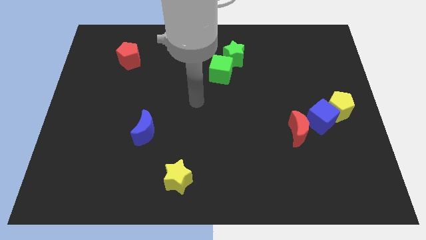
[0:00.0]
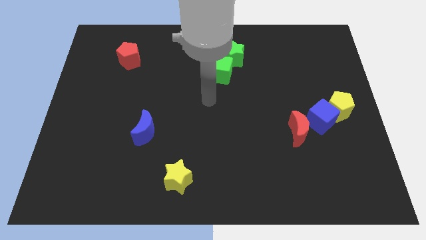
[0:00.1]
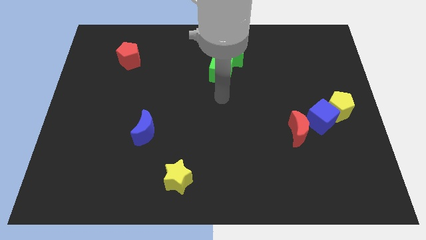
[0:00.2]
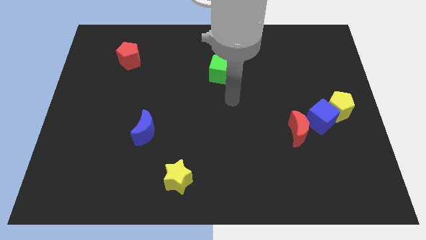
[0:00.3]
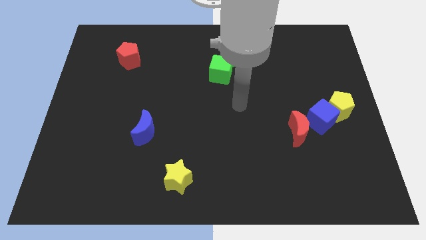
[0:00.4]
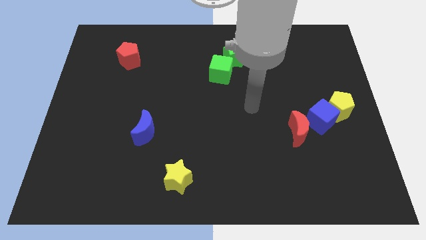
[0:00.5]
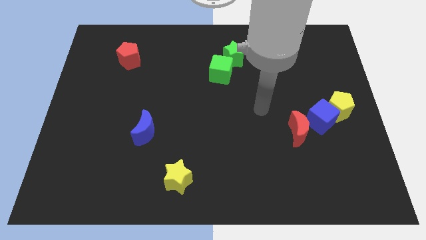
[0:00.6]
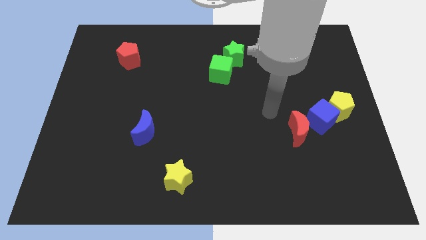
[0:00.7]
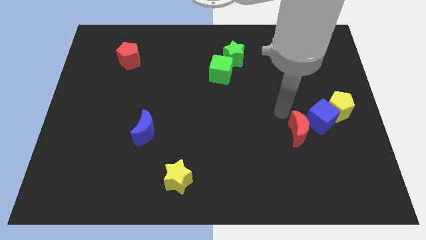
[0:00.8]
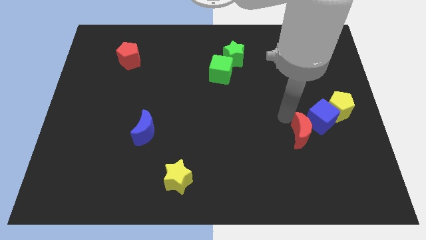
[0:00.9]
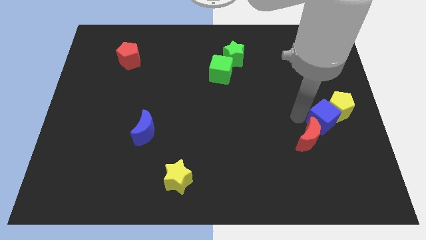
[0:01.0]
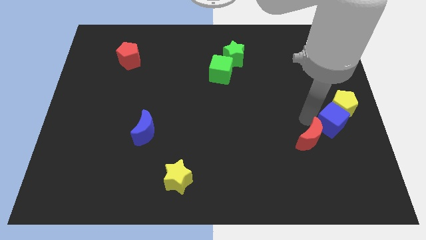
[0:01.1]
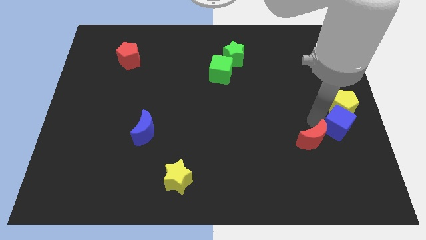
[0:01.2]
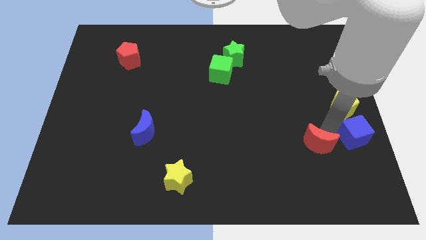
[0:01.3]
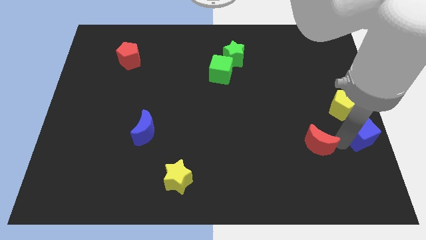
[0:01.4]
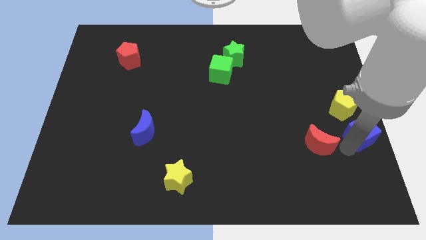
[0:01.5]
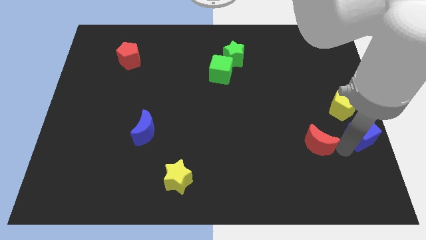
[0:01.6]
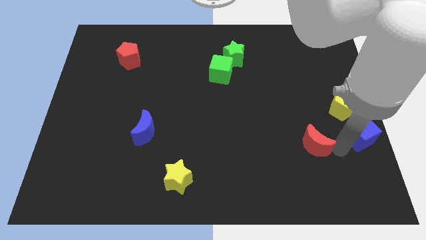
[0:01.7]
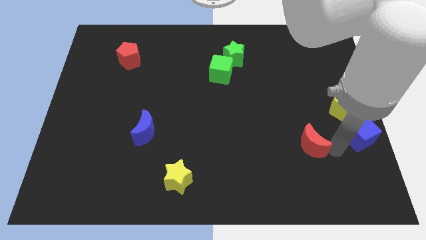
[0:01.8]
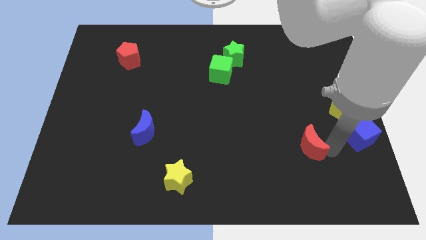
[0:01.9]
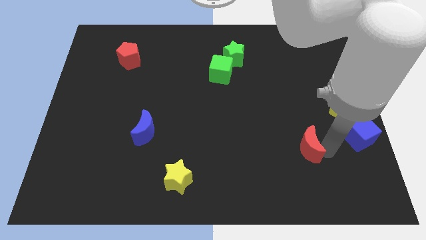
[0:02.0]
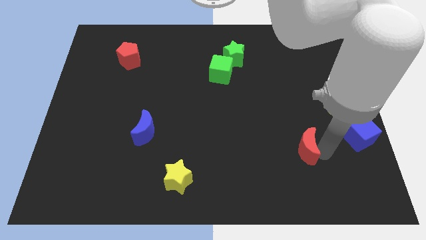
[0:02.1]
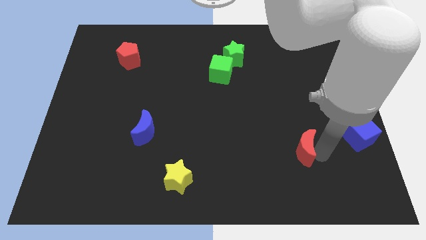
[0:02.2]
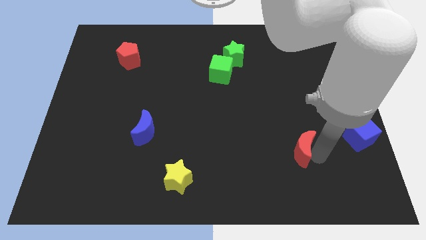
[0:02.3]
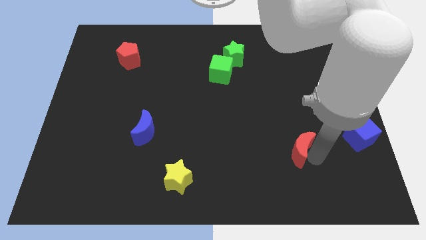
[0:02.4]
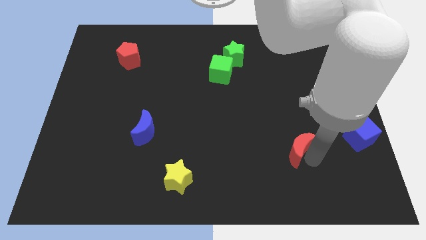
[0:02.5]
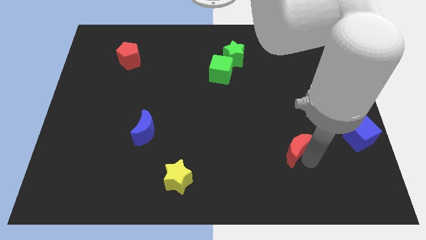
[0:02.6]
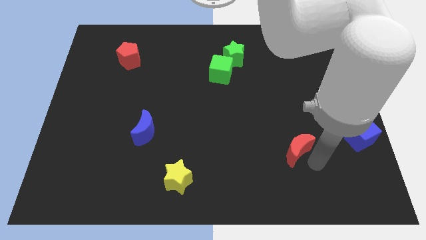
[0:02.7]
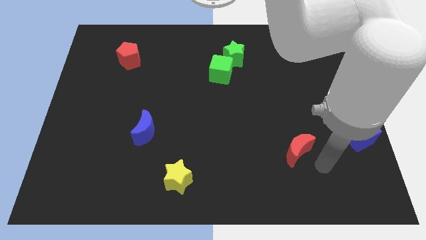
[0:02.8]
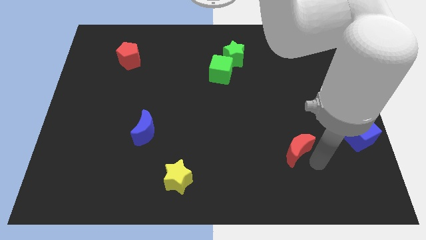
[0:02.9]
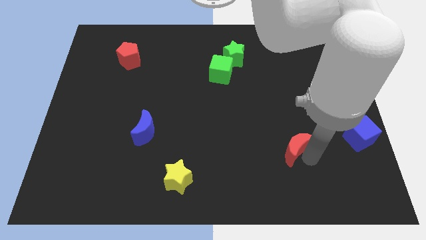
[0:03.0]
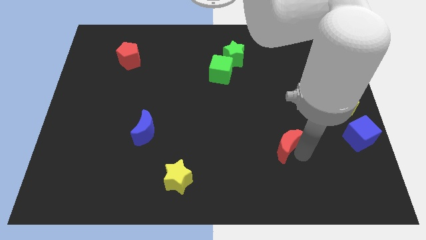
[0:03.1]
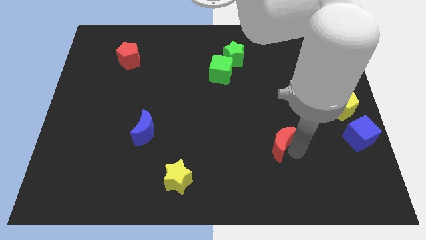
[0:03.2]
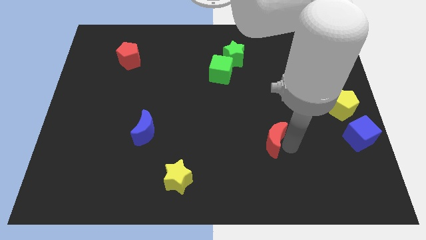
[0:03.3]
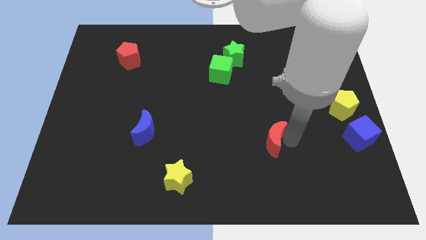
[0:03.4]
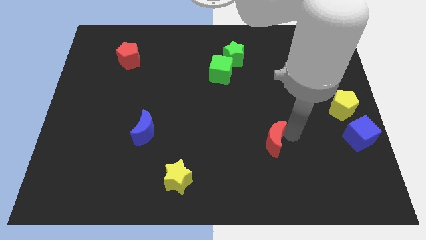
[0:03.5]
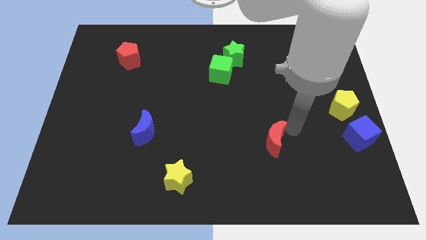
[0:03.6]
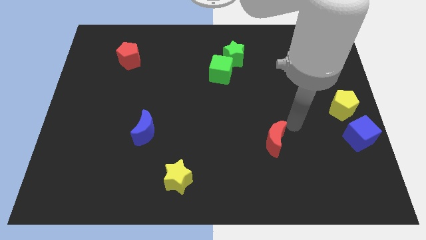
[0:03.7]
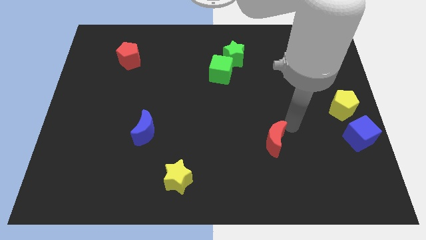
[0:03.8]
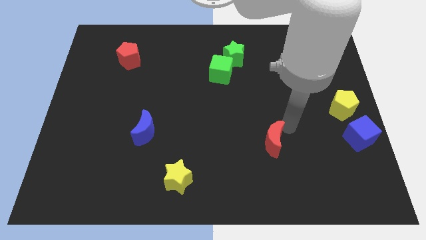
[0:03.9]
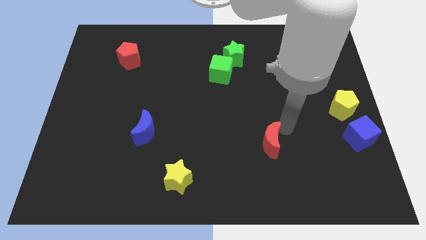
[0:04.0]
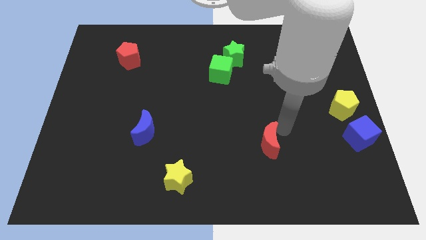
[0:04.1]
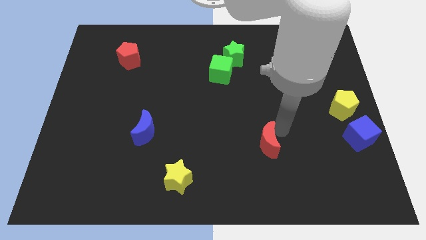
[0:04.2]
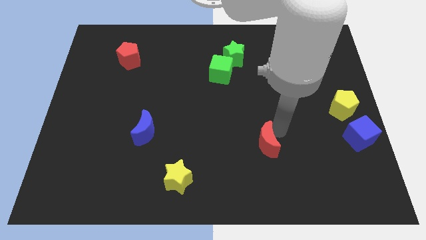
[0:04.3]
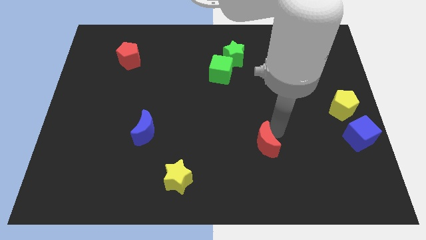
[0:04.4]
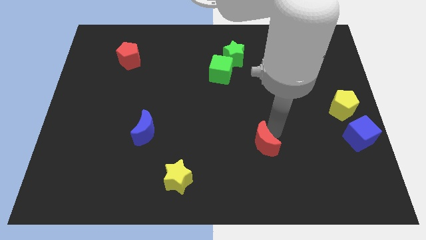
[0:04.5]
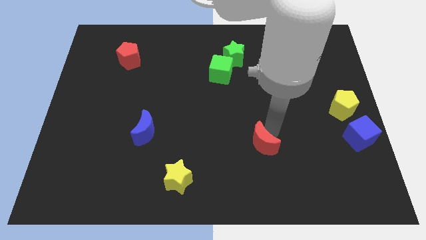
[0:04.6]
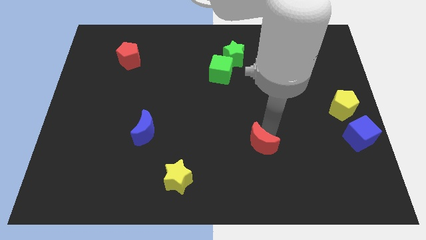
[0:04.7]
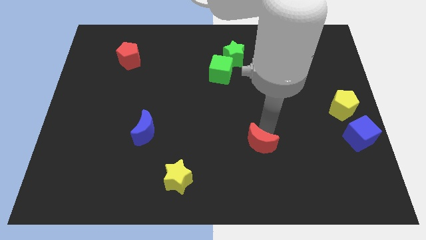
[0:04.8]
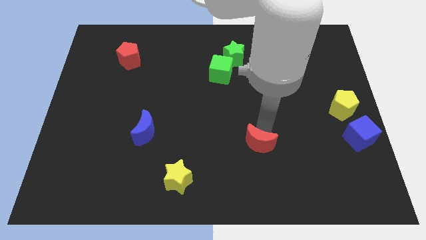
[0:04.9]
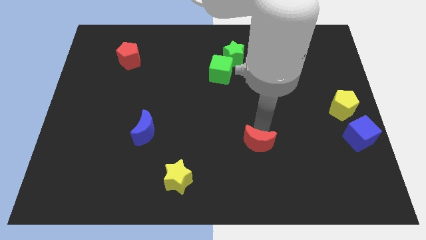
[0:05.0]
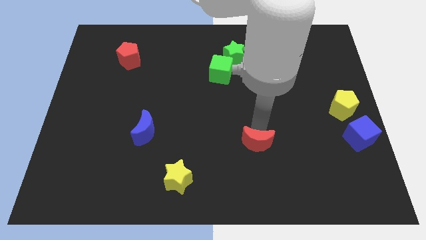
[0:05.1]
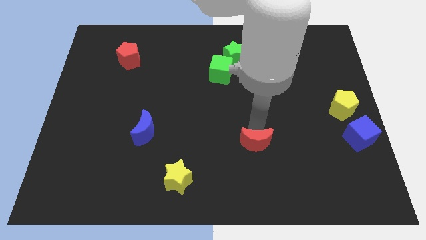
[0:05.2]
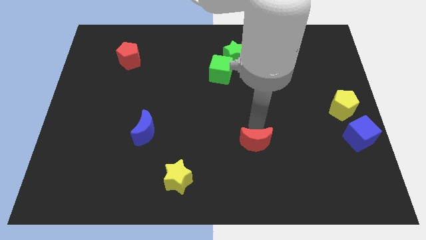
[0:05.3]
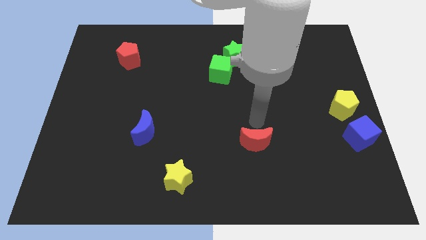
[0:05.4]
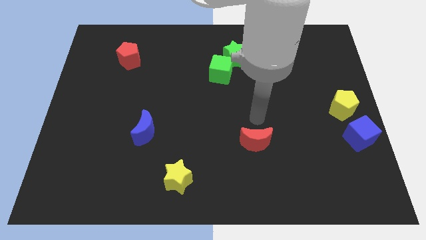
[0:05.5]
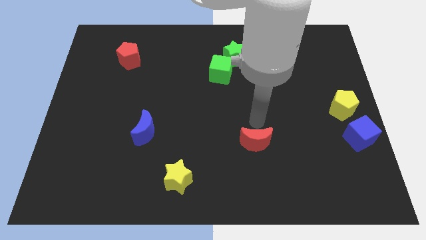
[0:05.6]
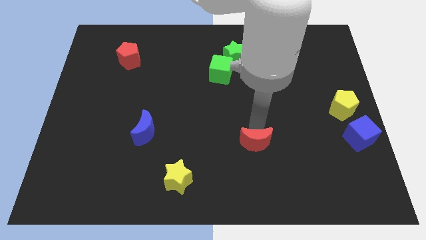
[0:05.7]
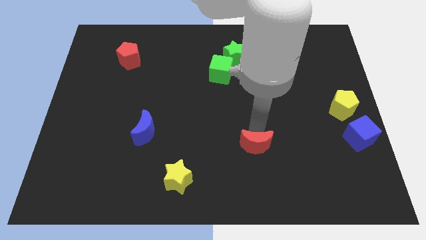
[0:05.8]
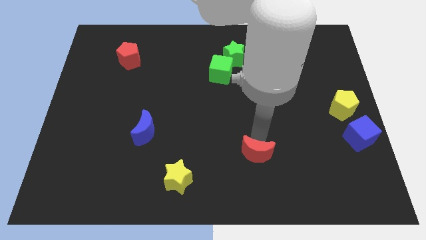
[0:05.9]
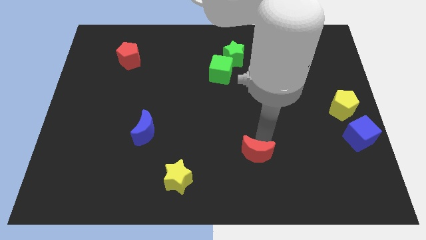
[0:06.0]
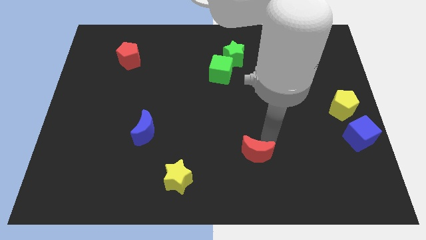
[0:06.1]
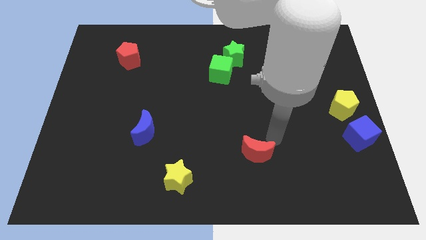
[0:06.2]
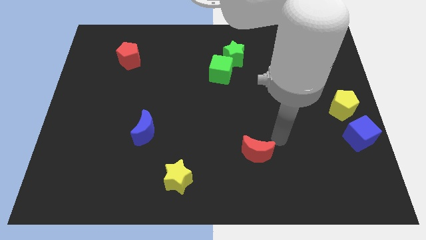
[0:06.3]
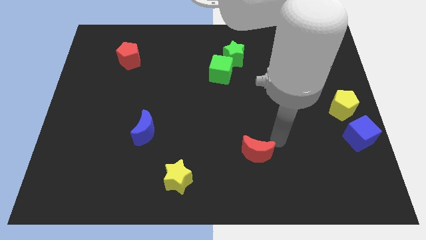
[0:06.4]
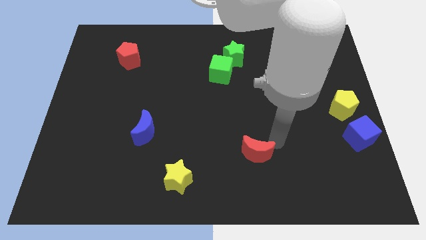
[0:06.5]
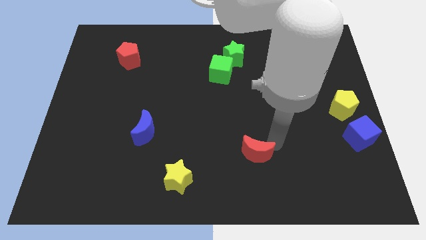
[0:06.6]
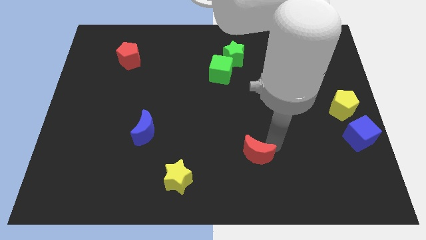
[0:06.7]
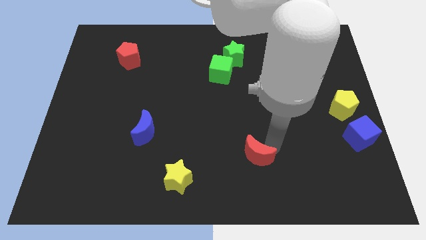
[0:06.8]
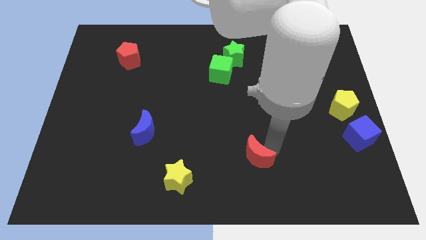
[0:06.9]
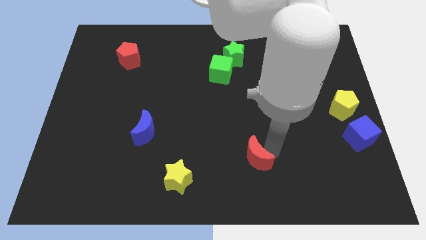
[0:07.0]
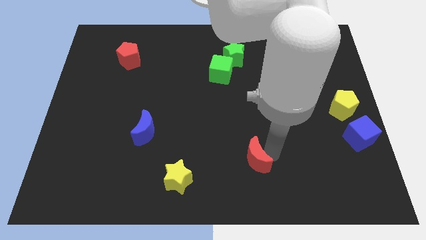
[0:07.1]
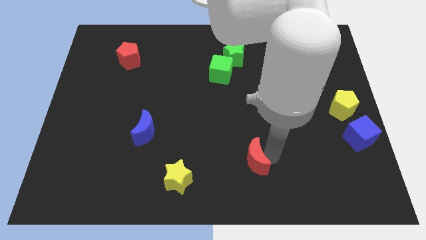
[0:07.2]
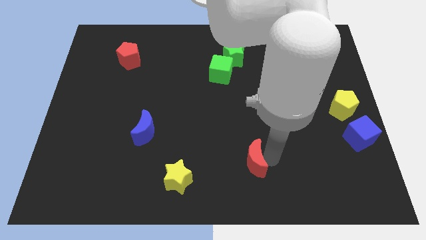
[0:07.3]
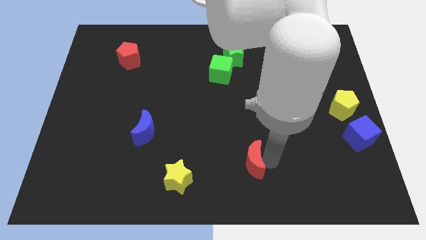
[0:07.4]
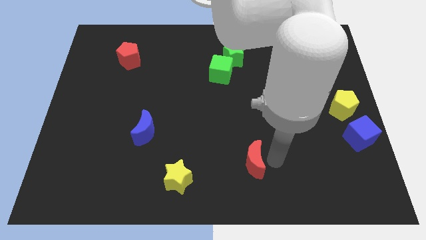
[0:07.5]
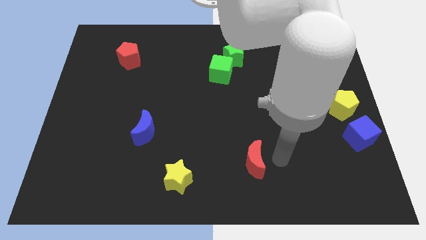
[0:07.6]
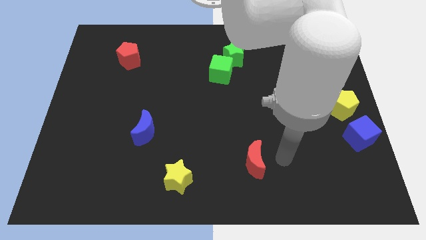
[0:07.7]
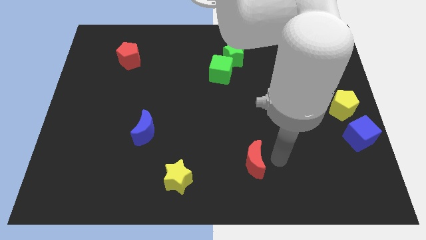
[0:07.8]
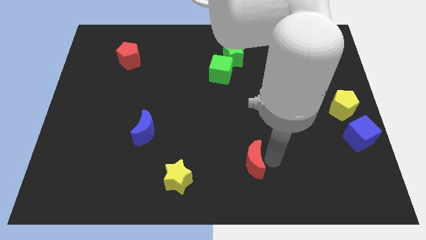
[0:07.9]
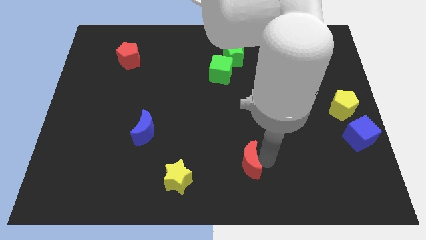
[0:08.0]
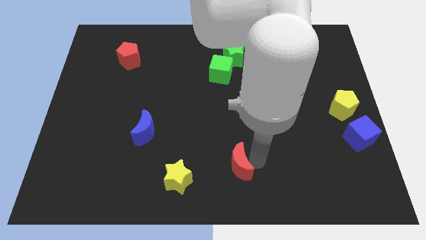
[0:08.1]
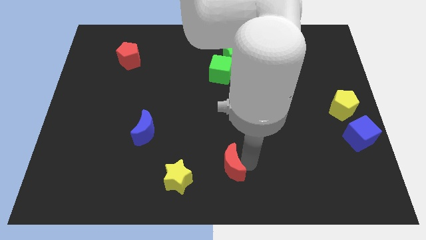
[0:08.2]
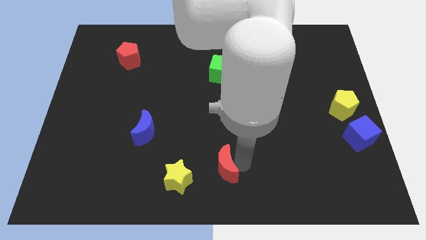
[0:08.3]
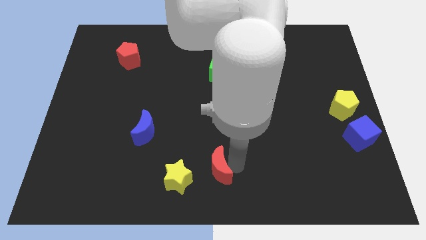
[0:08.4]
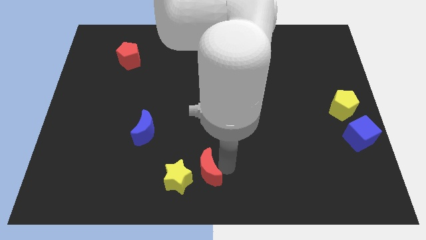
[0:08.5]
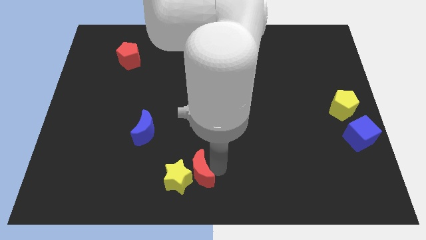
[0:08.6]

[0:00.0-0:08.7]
move the red moon to the yellow star
